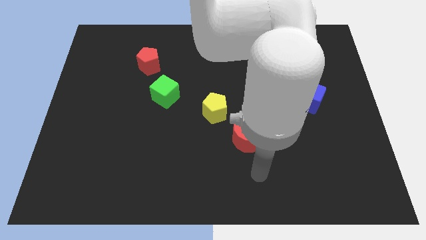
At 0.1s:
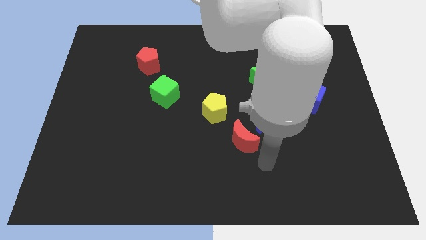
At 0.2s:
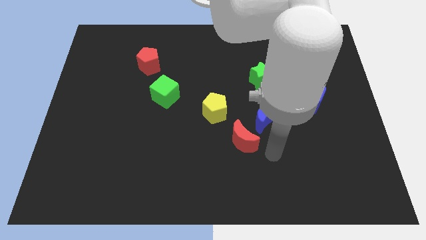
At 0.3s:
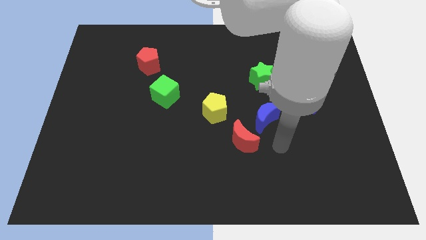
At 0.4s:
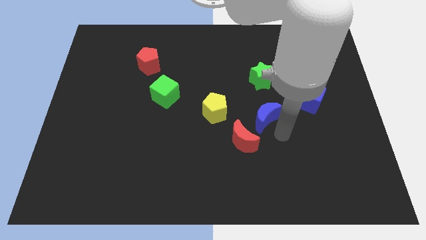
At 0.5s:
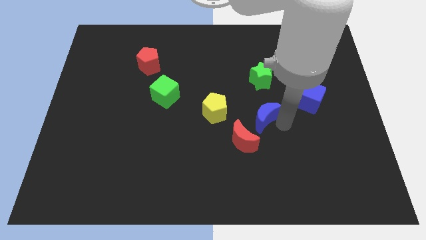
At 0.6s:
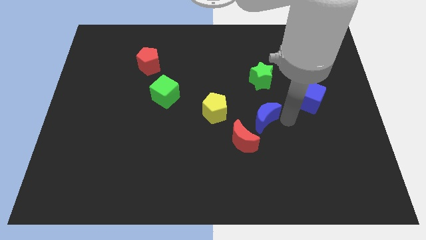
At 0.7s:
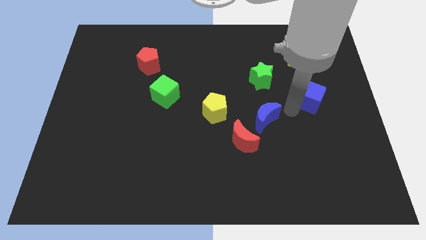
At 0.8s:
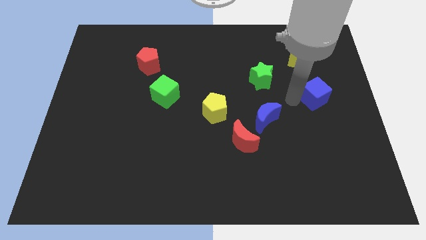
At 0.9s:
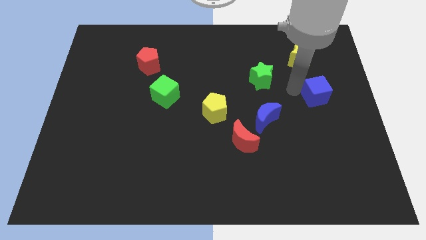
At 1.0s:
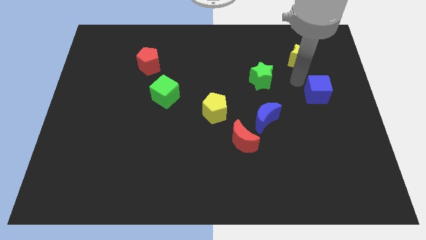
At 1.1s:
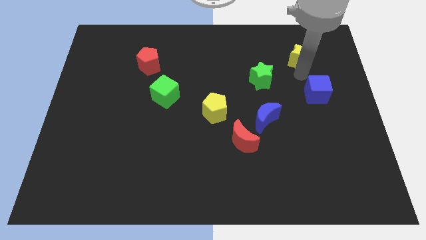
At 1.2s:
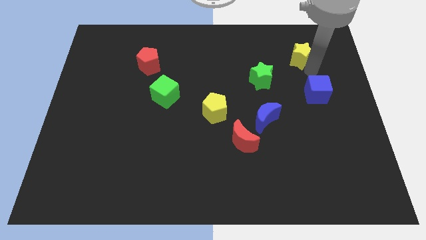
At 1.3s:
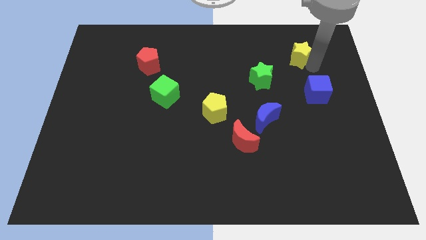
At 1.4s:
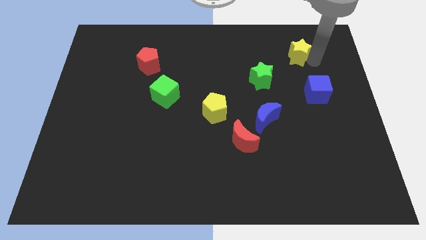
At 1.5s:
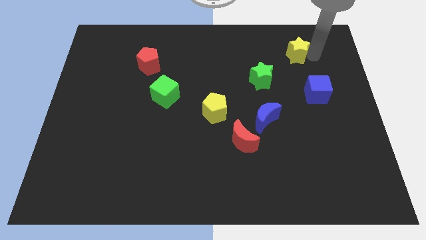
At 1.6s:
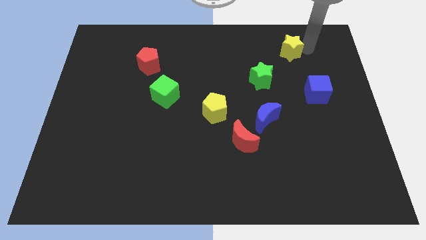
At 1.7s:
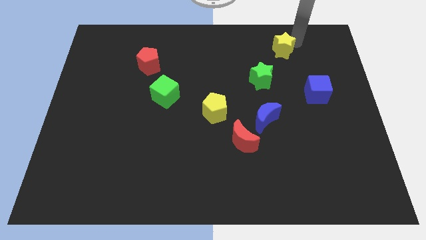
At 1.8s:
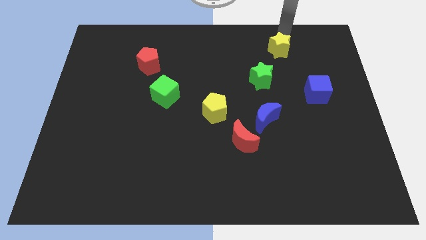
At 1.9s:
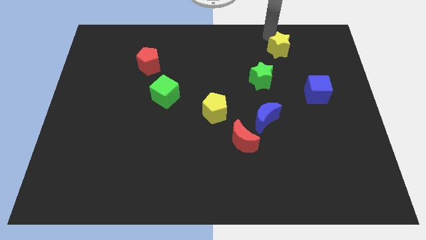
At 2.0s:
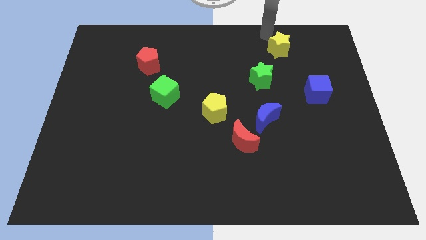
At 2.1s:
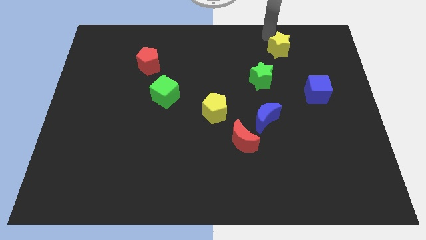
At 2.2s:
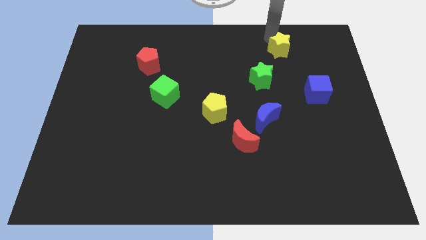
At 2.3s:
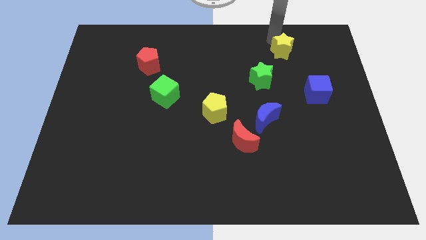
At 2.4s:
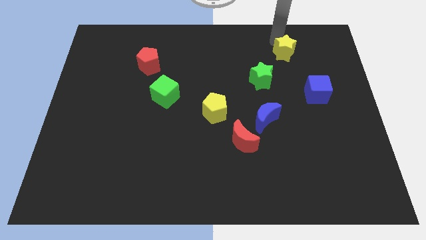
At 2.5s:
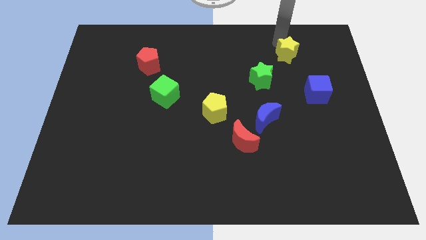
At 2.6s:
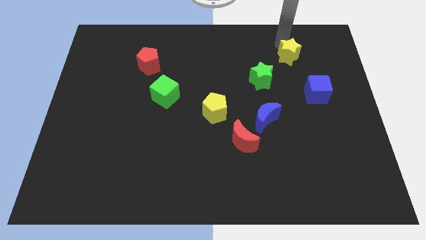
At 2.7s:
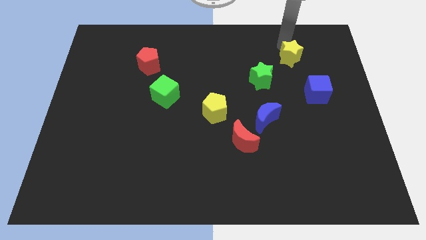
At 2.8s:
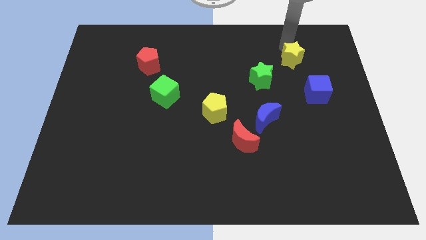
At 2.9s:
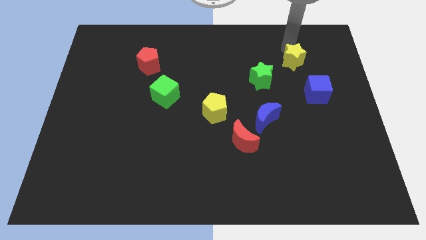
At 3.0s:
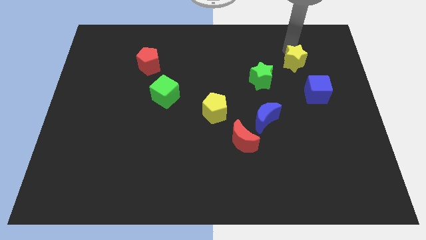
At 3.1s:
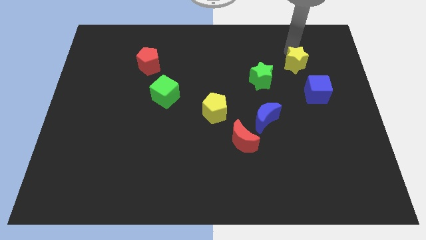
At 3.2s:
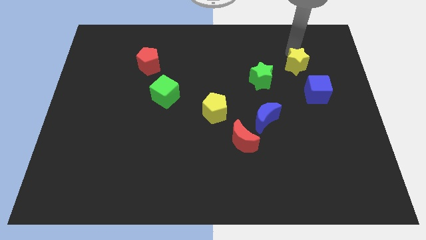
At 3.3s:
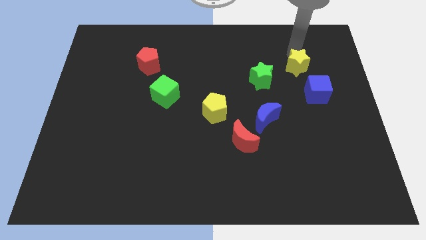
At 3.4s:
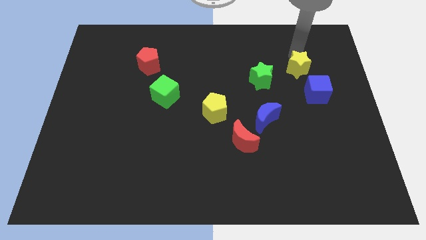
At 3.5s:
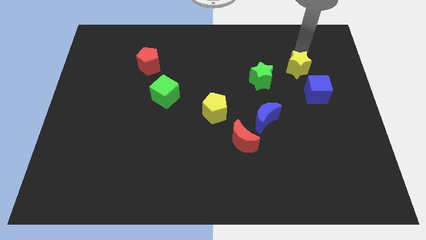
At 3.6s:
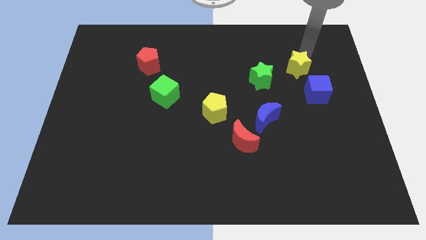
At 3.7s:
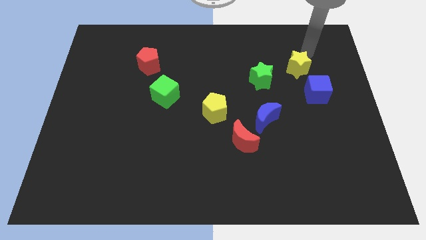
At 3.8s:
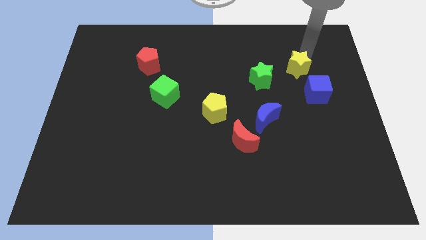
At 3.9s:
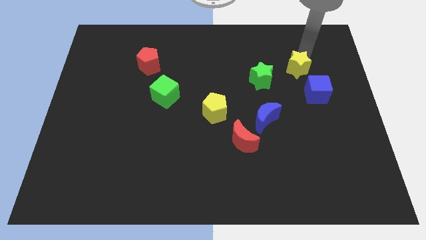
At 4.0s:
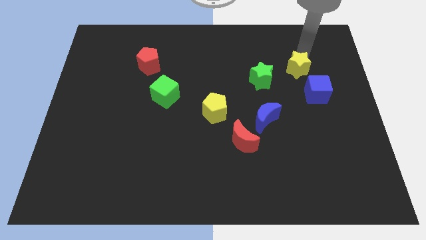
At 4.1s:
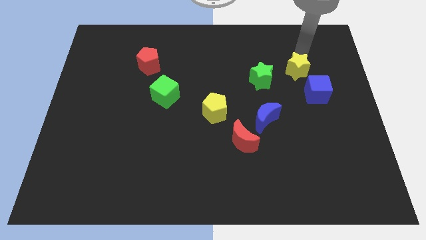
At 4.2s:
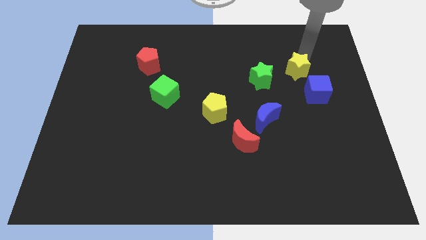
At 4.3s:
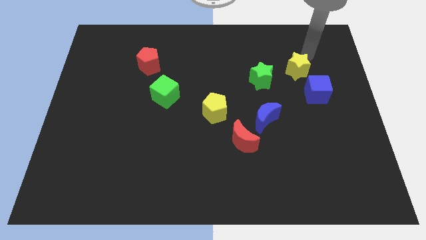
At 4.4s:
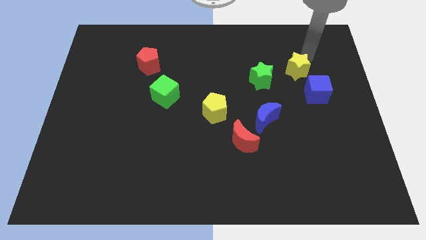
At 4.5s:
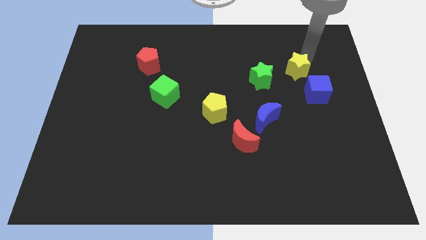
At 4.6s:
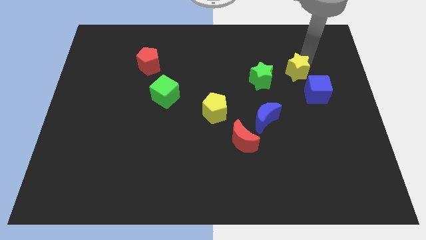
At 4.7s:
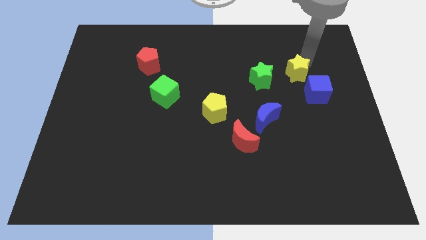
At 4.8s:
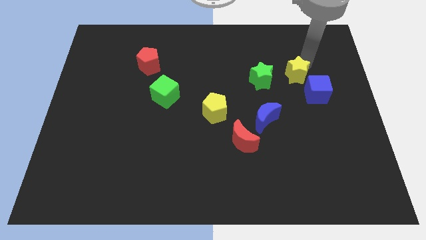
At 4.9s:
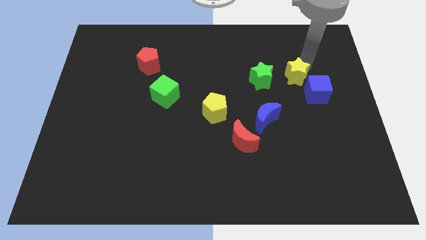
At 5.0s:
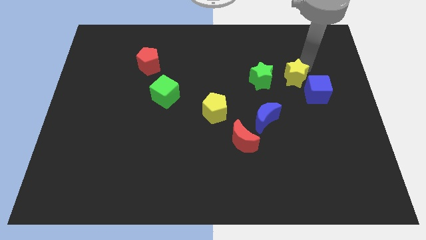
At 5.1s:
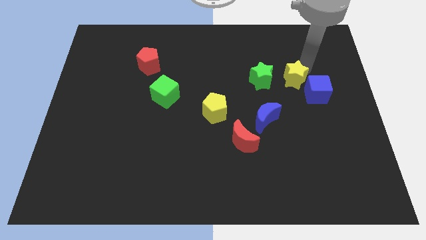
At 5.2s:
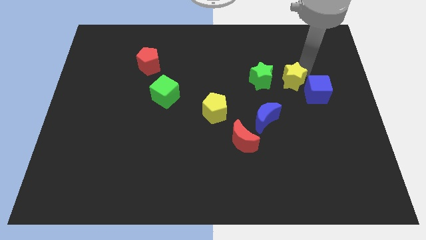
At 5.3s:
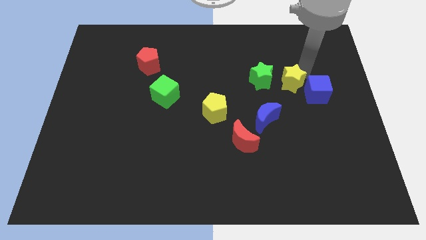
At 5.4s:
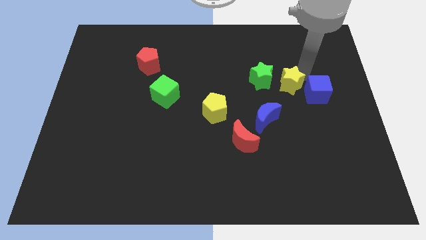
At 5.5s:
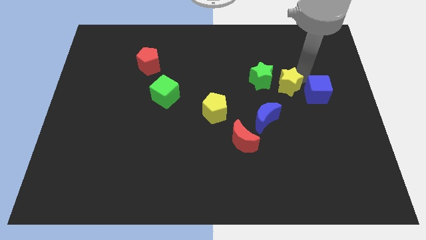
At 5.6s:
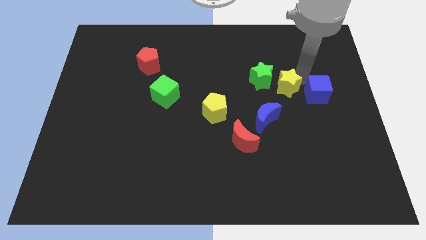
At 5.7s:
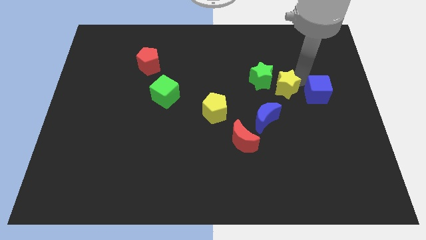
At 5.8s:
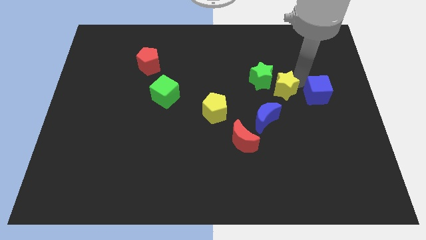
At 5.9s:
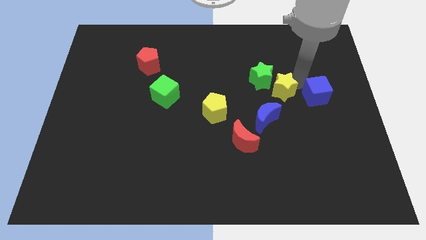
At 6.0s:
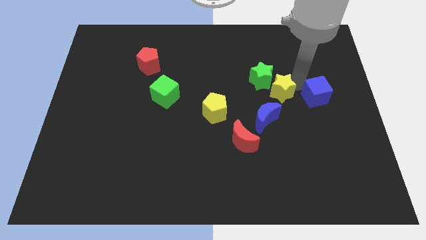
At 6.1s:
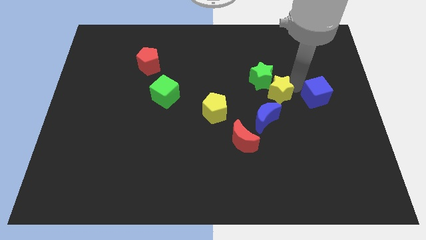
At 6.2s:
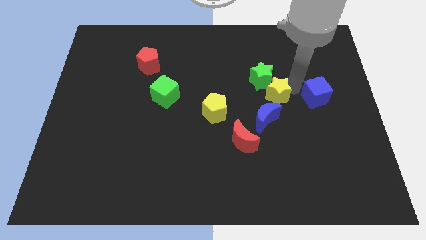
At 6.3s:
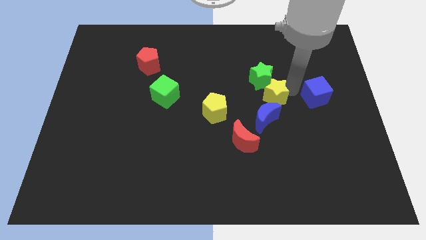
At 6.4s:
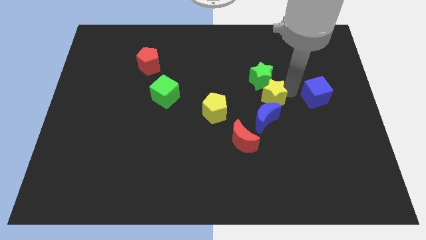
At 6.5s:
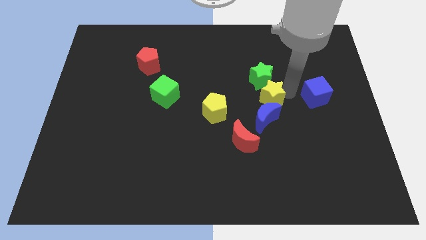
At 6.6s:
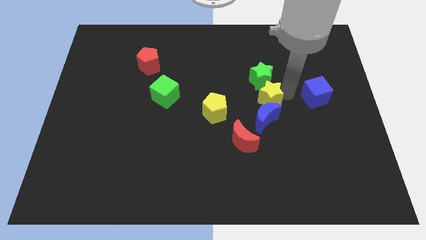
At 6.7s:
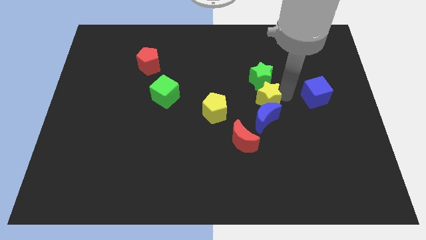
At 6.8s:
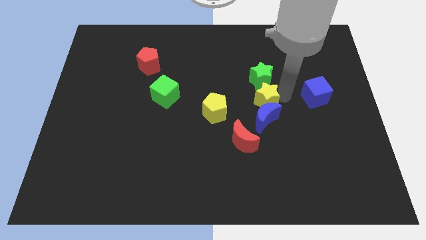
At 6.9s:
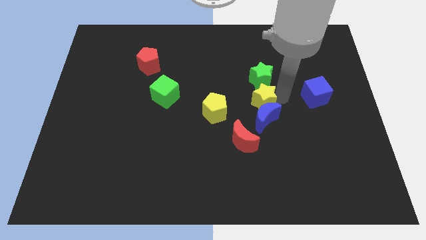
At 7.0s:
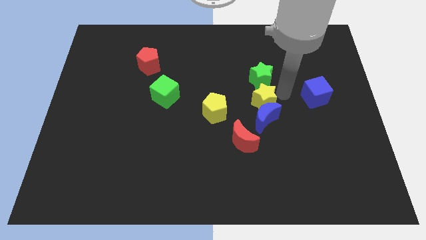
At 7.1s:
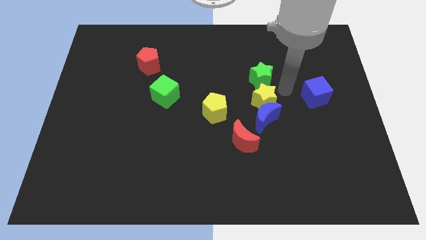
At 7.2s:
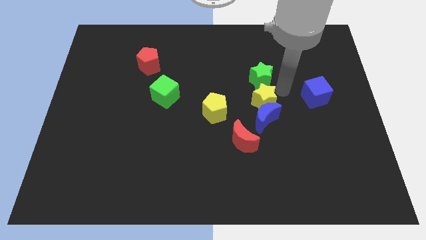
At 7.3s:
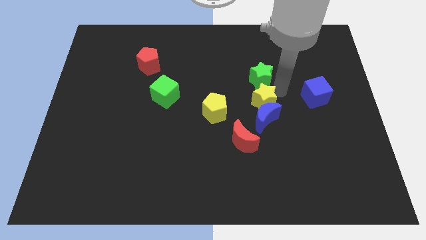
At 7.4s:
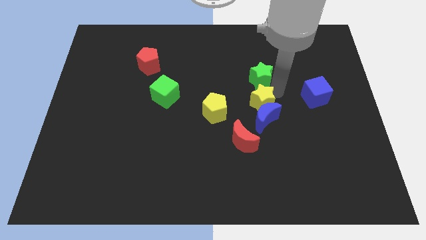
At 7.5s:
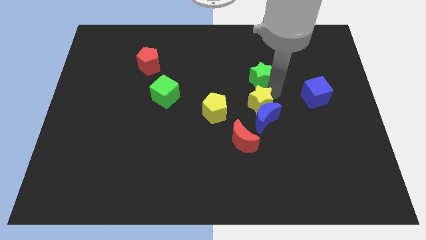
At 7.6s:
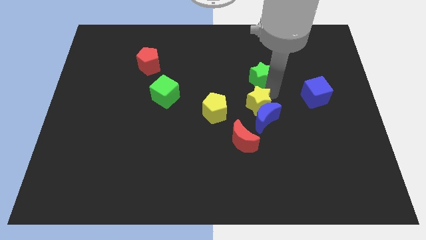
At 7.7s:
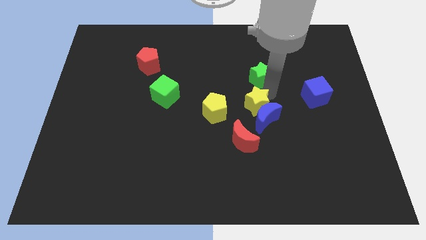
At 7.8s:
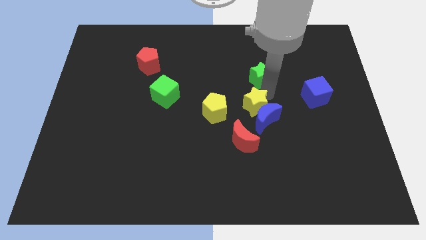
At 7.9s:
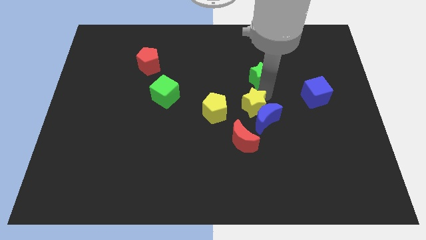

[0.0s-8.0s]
push the yellow star downwards and left diagonally
